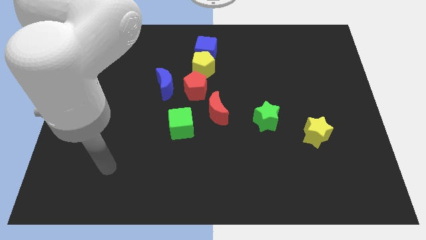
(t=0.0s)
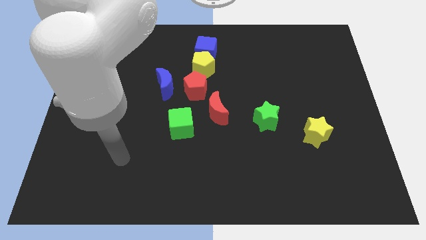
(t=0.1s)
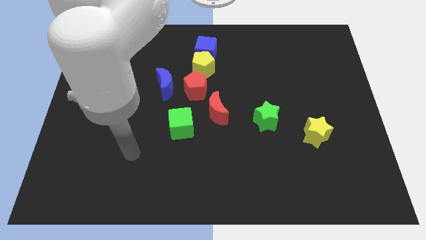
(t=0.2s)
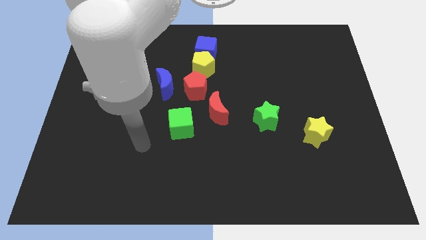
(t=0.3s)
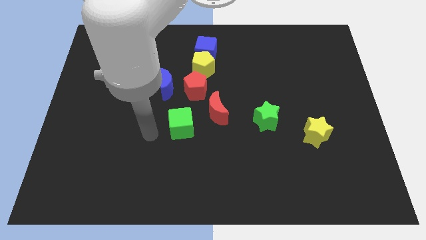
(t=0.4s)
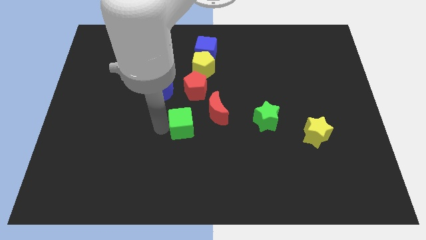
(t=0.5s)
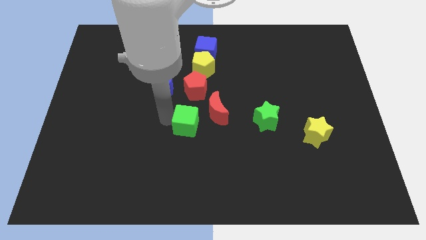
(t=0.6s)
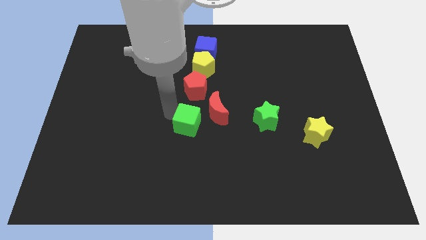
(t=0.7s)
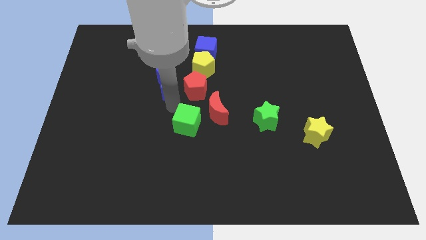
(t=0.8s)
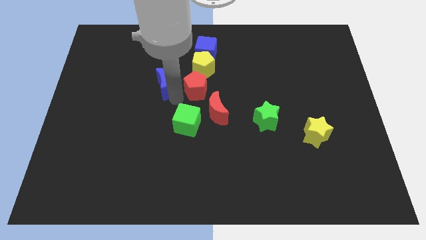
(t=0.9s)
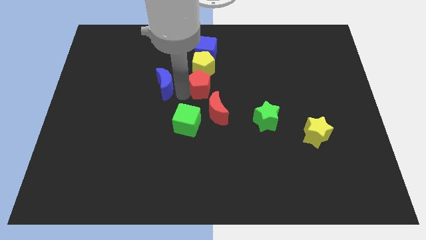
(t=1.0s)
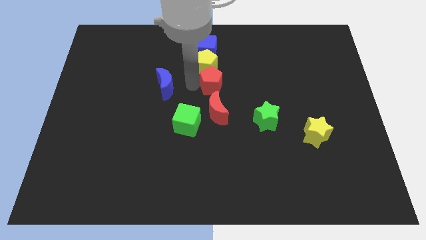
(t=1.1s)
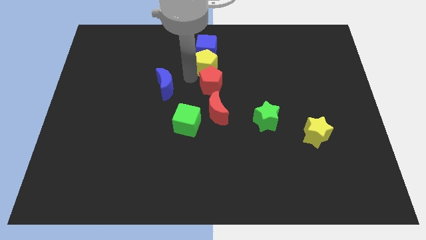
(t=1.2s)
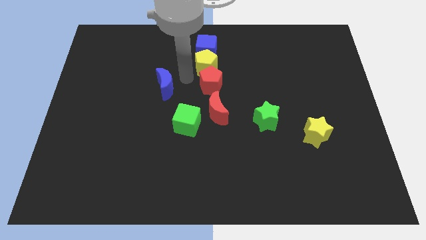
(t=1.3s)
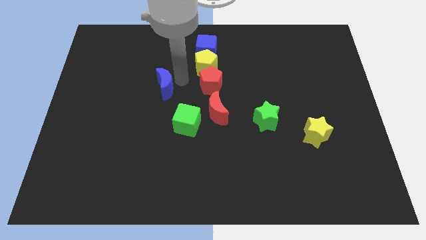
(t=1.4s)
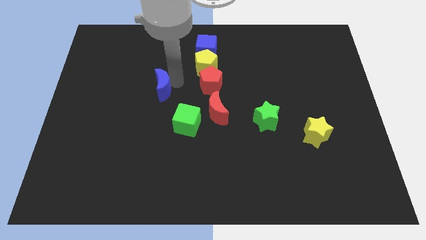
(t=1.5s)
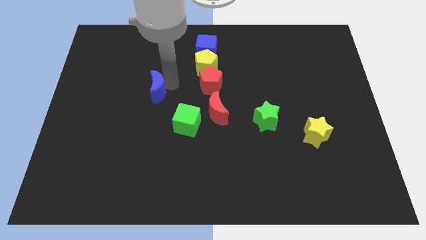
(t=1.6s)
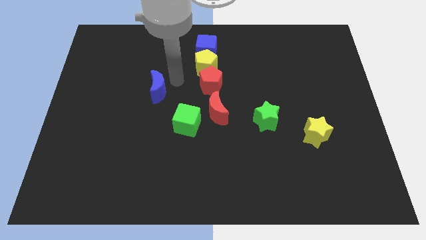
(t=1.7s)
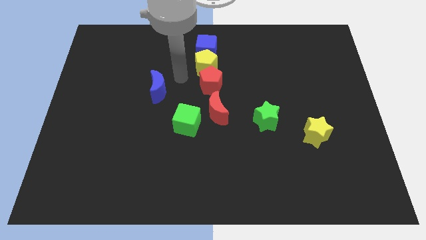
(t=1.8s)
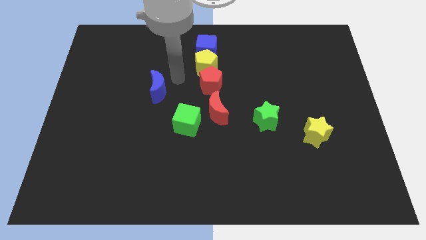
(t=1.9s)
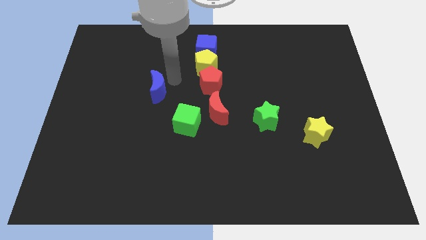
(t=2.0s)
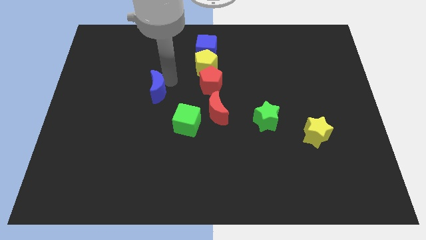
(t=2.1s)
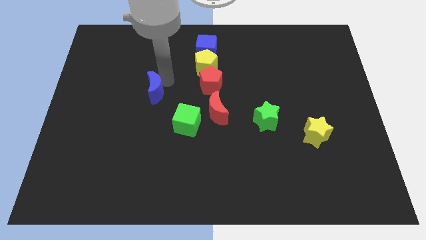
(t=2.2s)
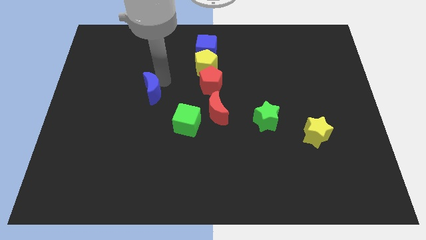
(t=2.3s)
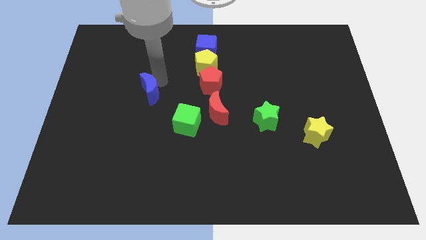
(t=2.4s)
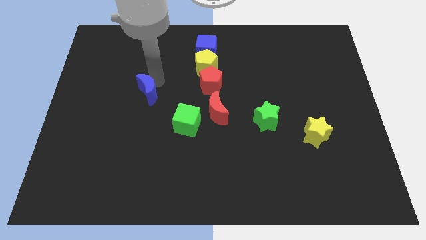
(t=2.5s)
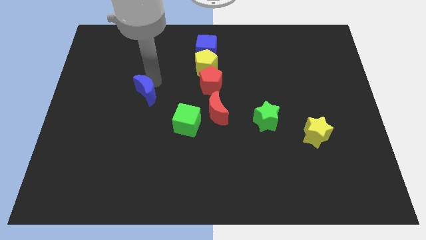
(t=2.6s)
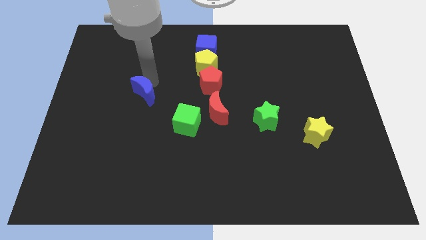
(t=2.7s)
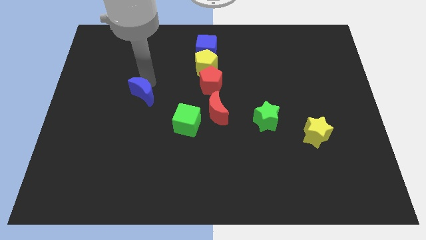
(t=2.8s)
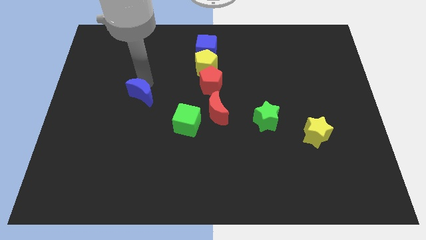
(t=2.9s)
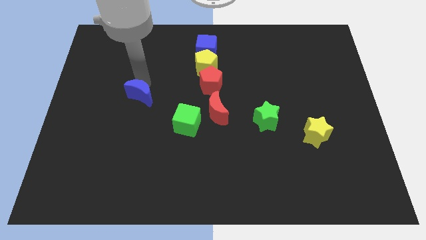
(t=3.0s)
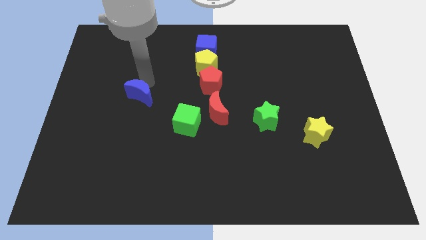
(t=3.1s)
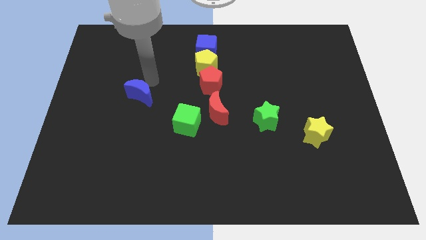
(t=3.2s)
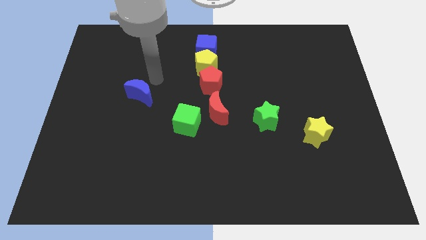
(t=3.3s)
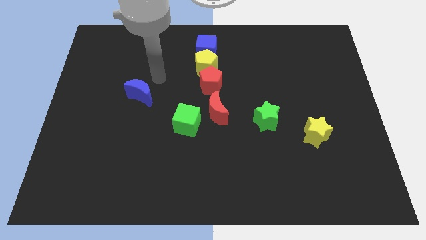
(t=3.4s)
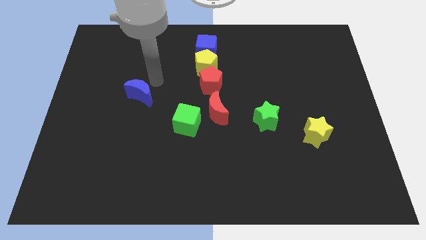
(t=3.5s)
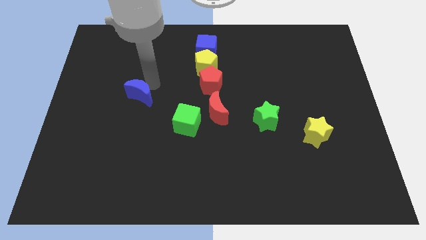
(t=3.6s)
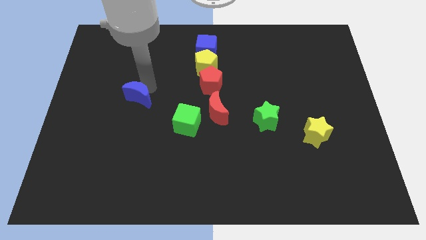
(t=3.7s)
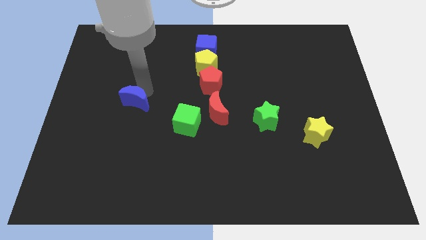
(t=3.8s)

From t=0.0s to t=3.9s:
slightly move the blue moon downwards and to the left

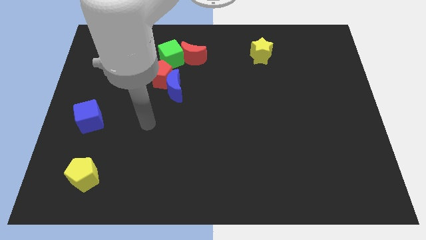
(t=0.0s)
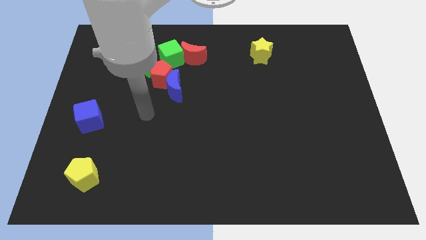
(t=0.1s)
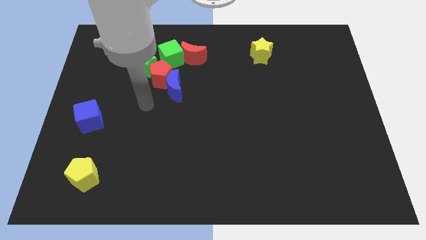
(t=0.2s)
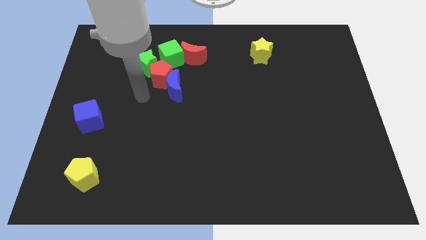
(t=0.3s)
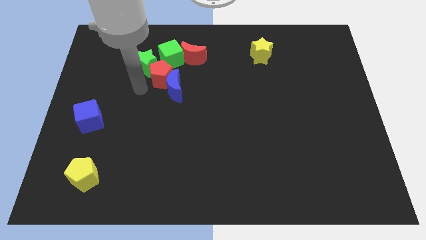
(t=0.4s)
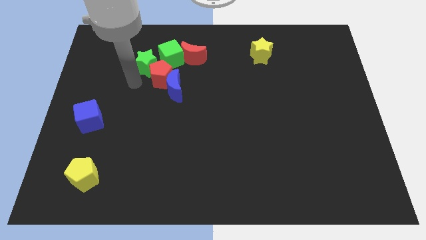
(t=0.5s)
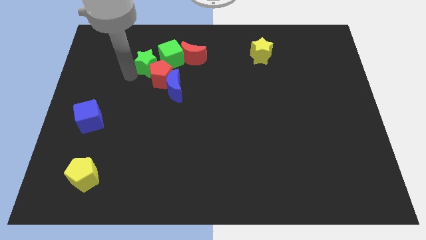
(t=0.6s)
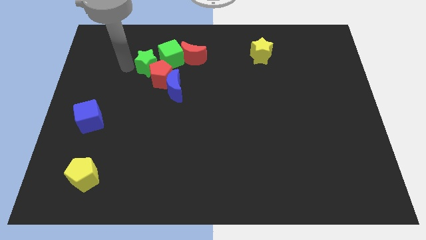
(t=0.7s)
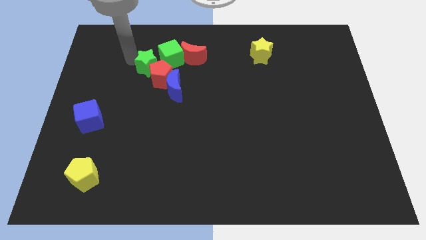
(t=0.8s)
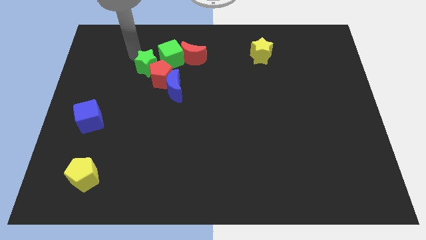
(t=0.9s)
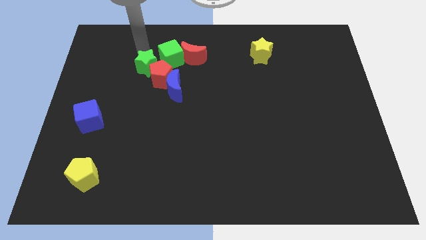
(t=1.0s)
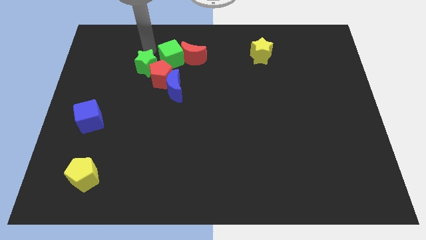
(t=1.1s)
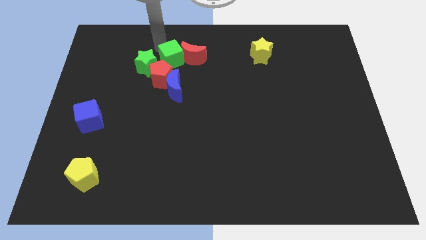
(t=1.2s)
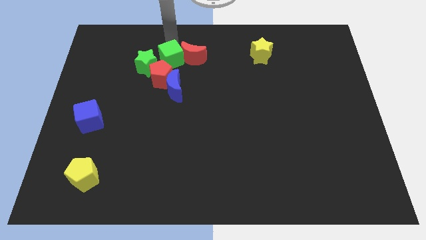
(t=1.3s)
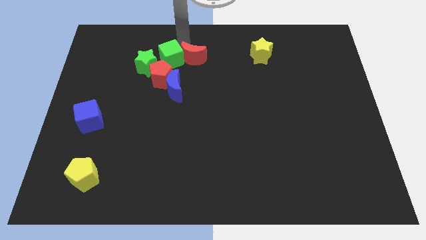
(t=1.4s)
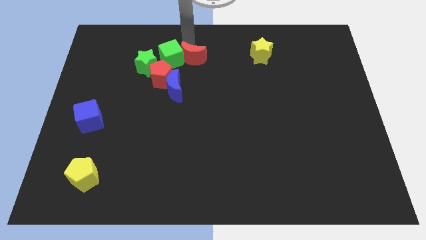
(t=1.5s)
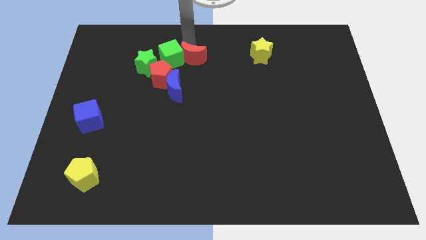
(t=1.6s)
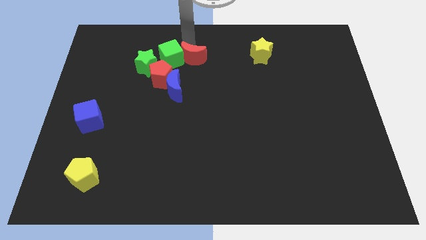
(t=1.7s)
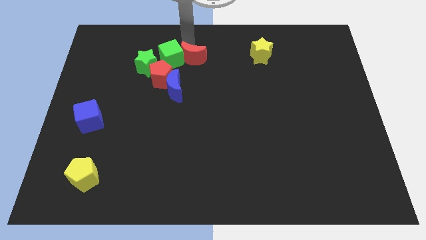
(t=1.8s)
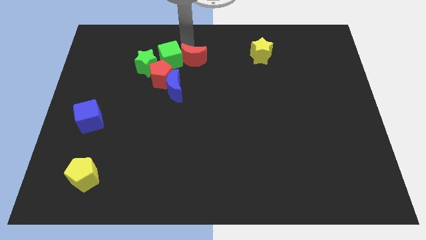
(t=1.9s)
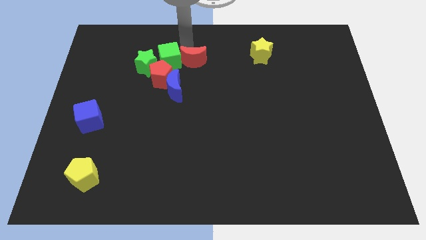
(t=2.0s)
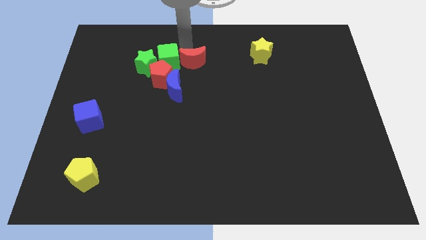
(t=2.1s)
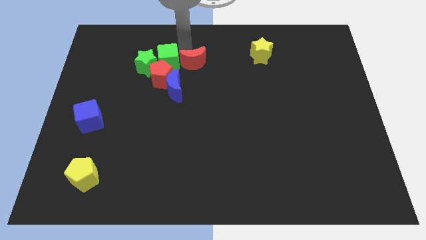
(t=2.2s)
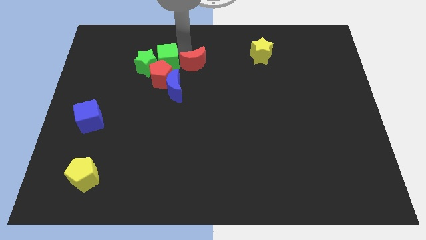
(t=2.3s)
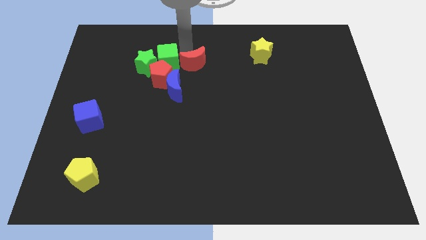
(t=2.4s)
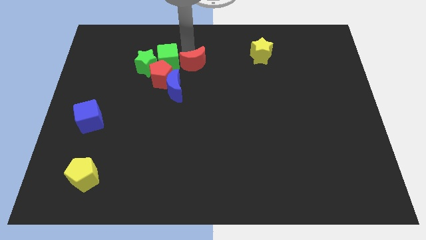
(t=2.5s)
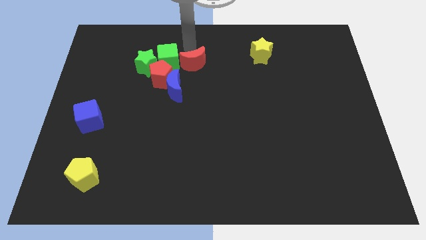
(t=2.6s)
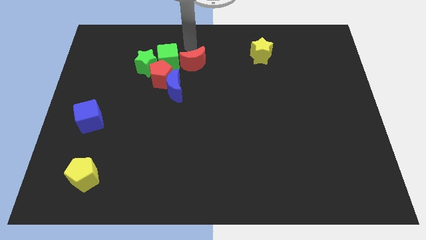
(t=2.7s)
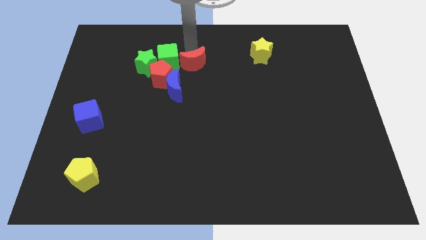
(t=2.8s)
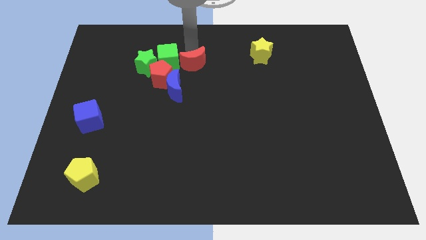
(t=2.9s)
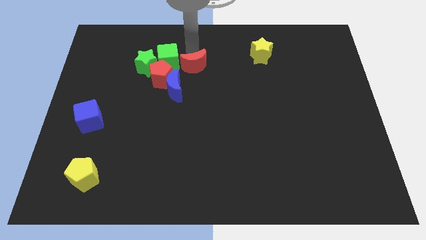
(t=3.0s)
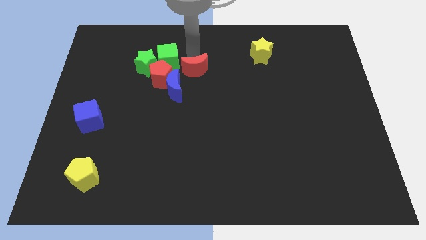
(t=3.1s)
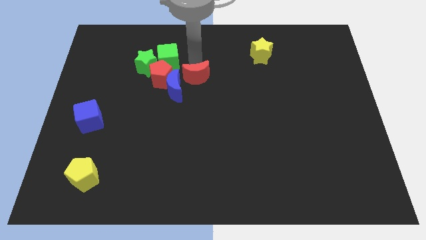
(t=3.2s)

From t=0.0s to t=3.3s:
push the red moon down a bit

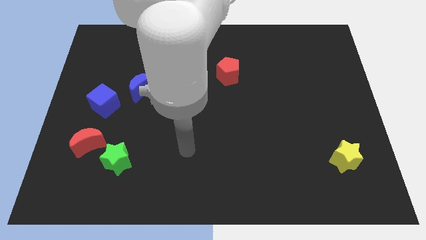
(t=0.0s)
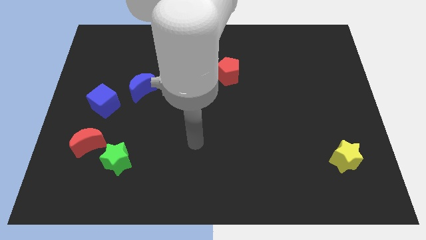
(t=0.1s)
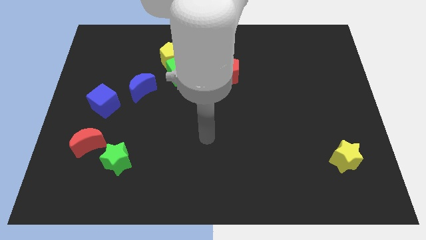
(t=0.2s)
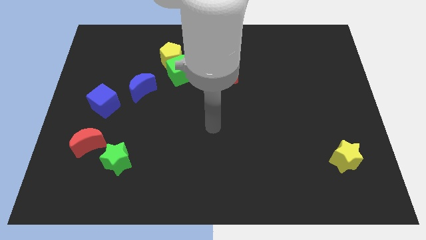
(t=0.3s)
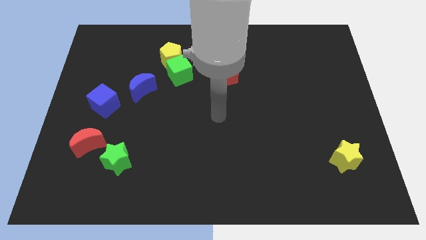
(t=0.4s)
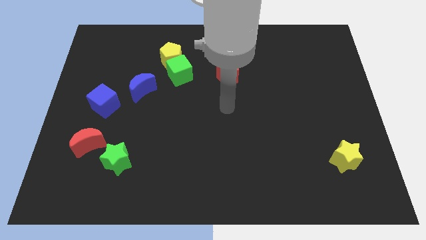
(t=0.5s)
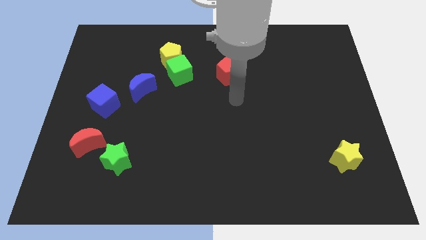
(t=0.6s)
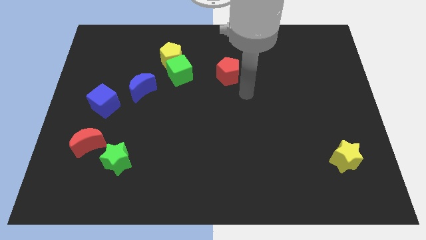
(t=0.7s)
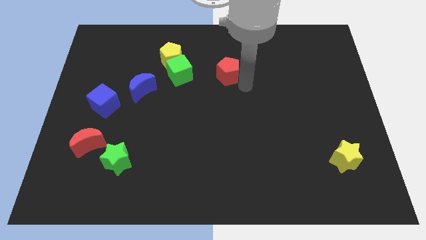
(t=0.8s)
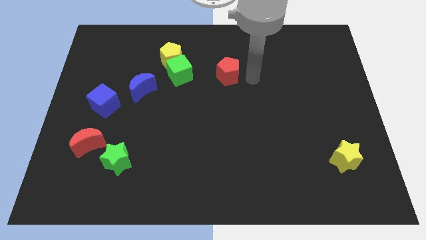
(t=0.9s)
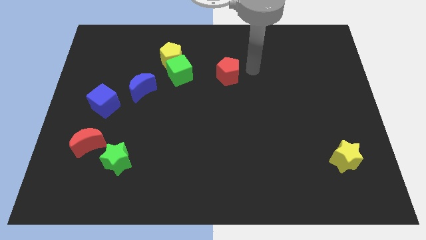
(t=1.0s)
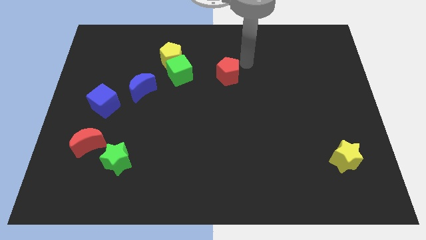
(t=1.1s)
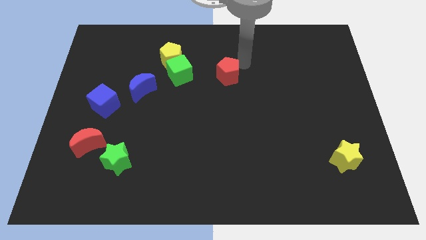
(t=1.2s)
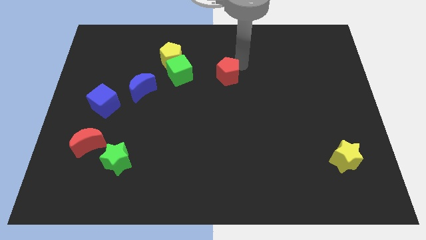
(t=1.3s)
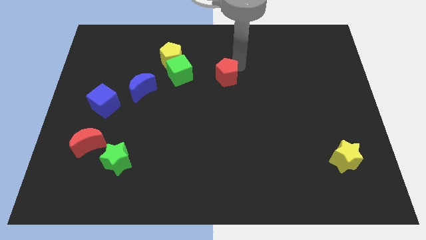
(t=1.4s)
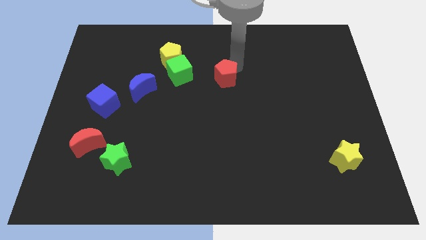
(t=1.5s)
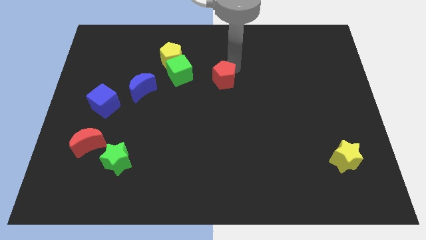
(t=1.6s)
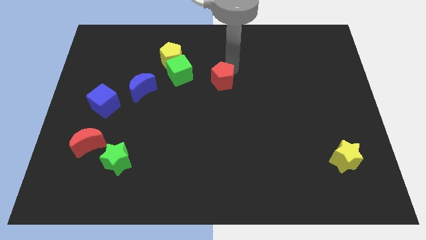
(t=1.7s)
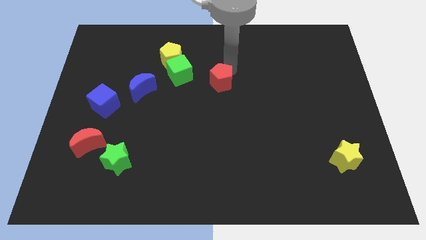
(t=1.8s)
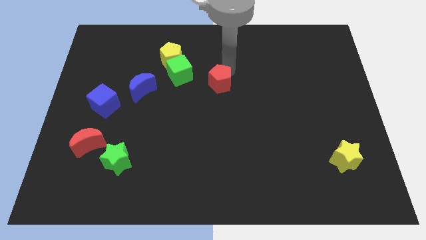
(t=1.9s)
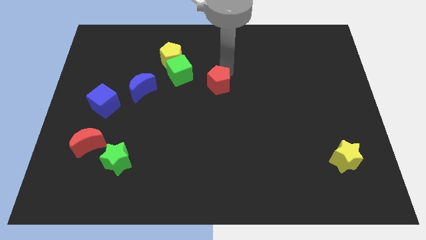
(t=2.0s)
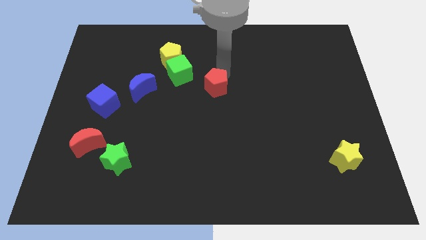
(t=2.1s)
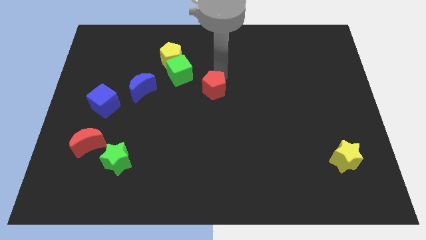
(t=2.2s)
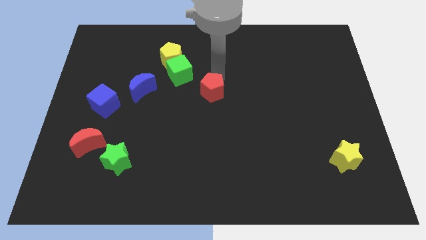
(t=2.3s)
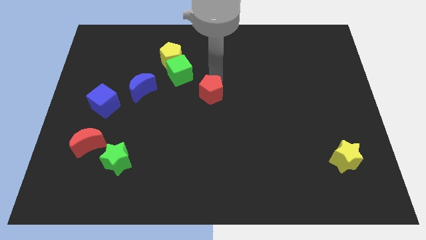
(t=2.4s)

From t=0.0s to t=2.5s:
slightly move the red pentagon downwards and to the left diagonally
